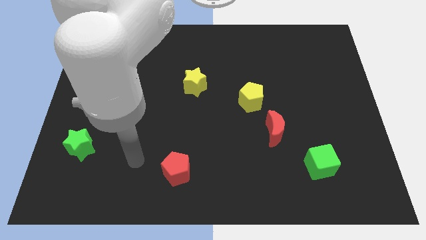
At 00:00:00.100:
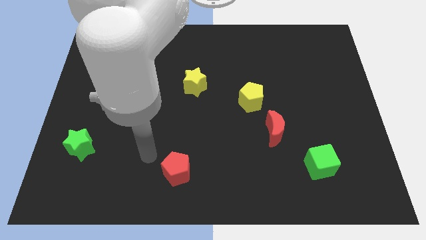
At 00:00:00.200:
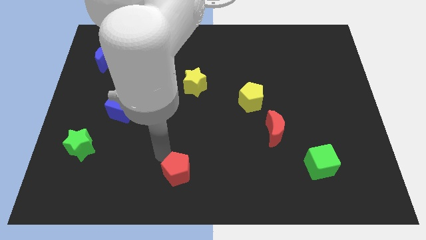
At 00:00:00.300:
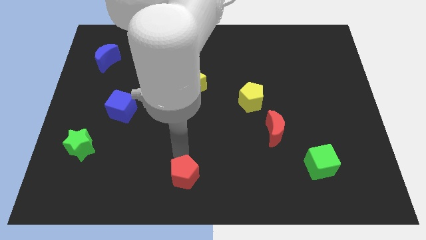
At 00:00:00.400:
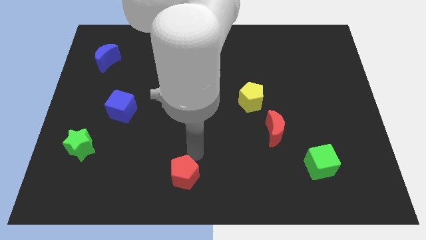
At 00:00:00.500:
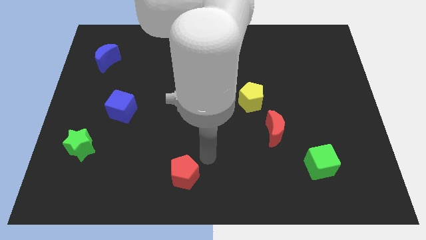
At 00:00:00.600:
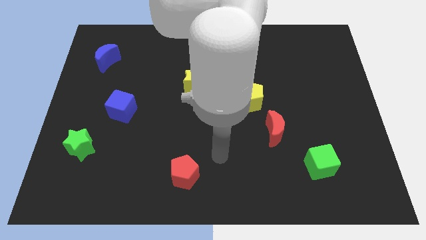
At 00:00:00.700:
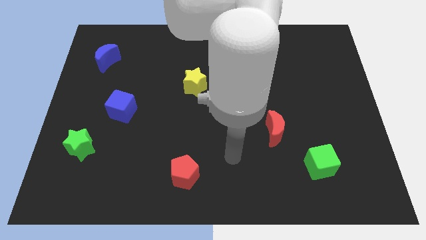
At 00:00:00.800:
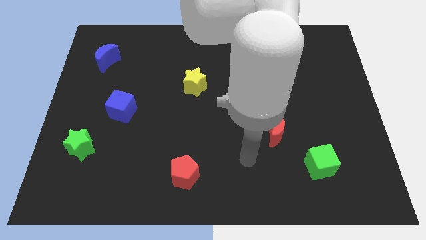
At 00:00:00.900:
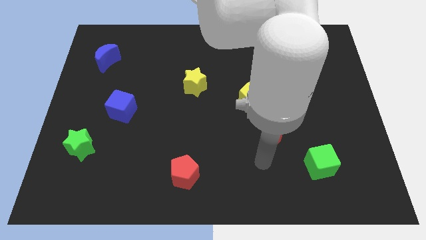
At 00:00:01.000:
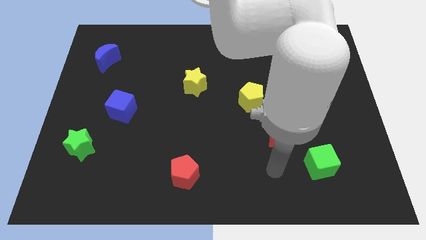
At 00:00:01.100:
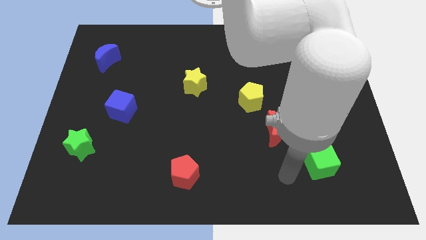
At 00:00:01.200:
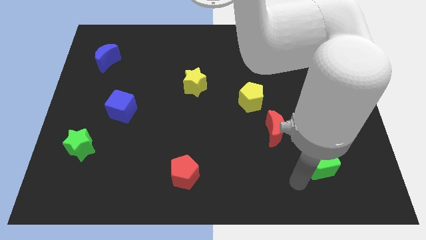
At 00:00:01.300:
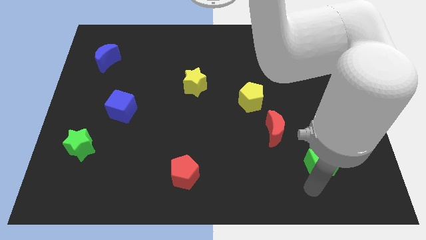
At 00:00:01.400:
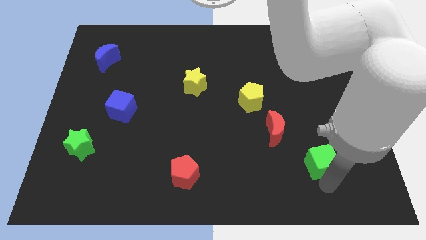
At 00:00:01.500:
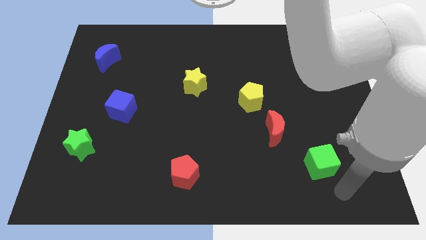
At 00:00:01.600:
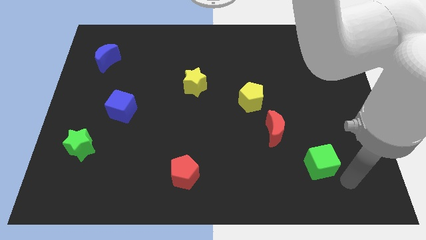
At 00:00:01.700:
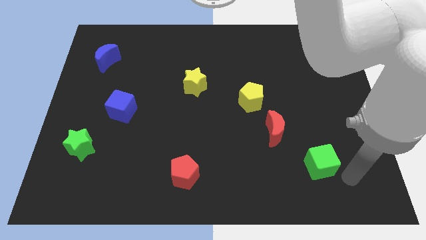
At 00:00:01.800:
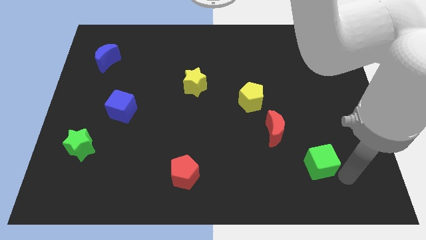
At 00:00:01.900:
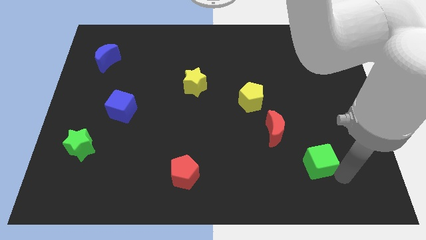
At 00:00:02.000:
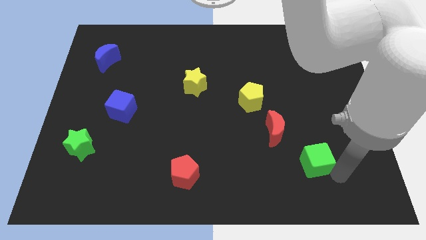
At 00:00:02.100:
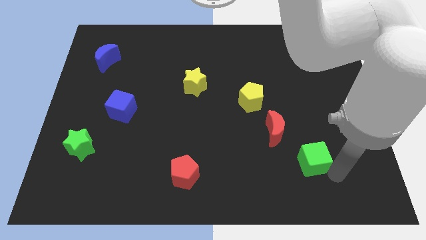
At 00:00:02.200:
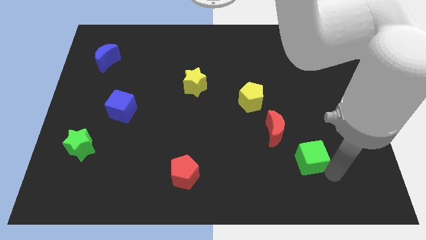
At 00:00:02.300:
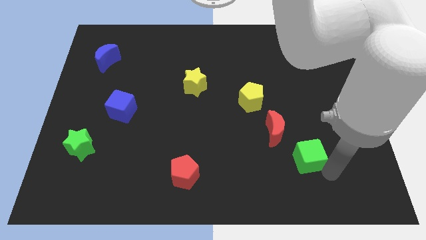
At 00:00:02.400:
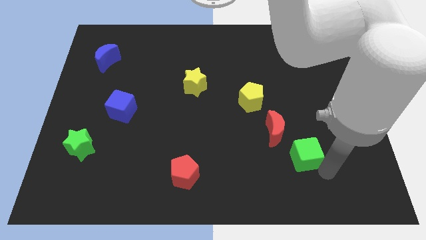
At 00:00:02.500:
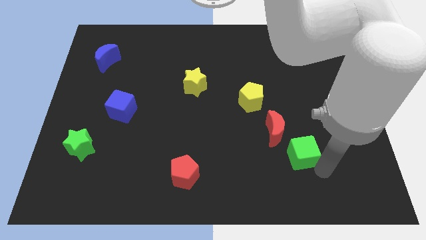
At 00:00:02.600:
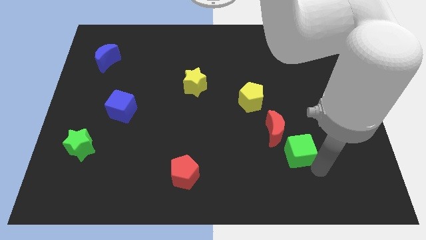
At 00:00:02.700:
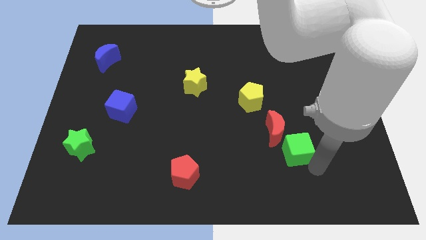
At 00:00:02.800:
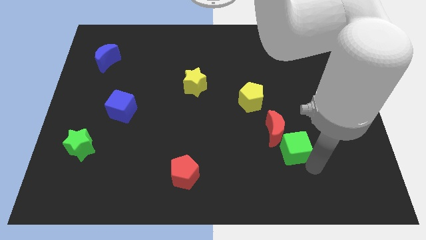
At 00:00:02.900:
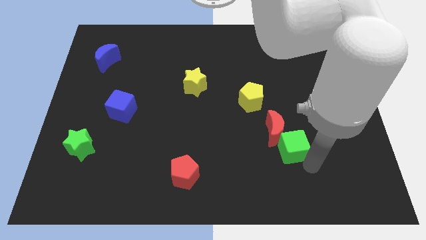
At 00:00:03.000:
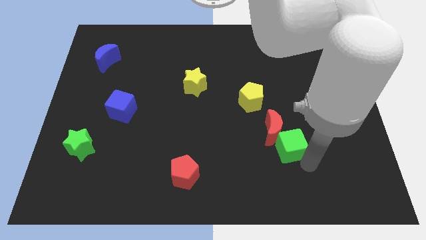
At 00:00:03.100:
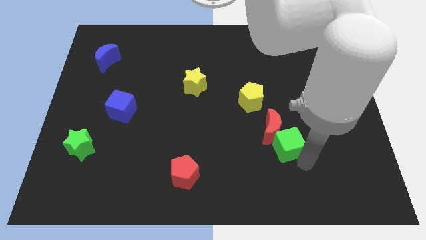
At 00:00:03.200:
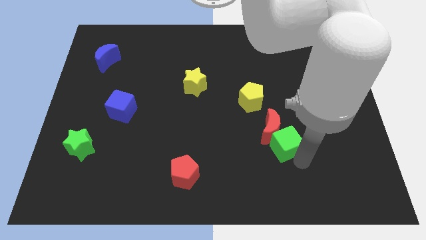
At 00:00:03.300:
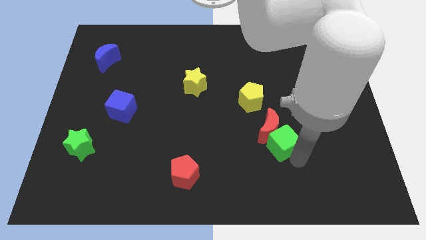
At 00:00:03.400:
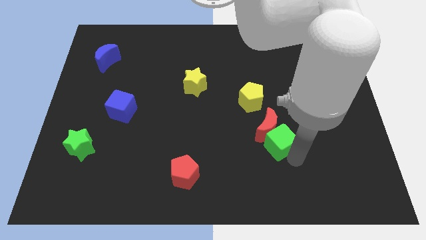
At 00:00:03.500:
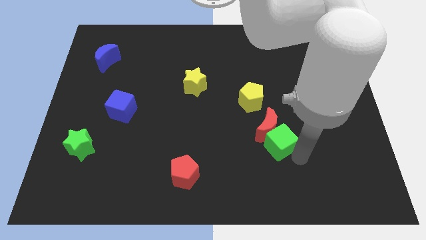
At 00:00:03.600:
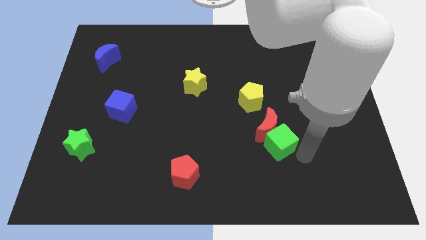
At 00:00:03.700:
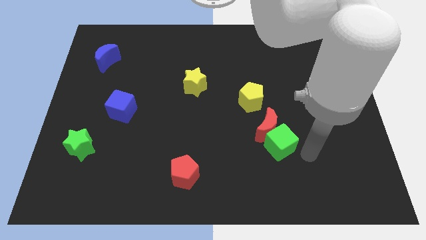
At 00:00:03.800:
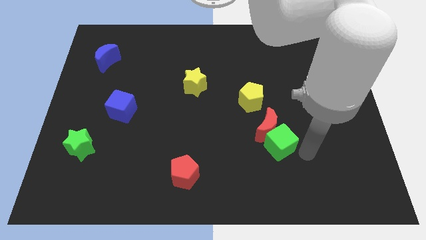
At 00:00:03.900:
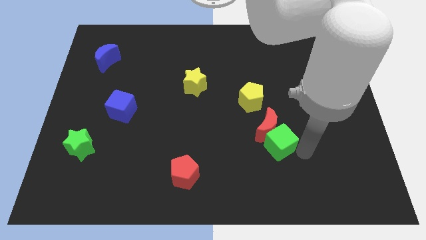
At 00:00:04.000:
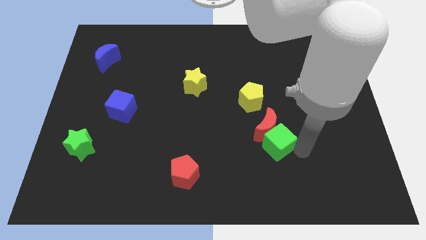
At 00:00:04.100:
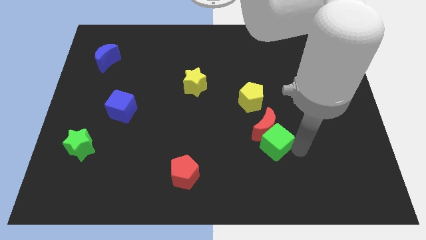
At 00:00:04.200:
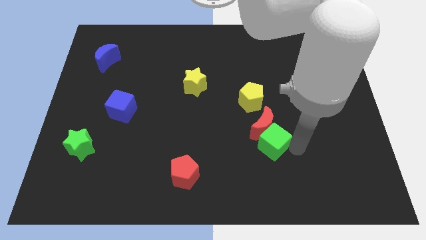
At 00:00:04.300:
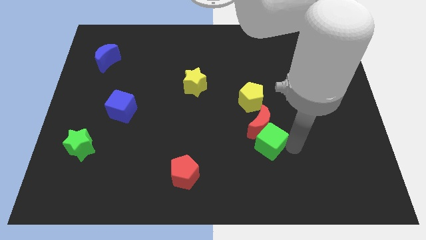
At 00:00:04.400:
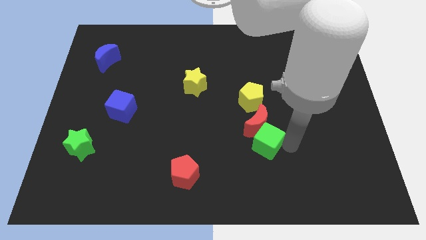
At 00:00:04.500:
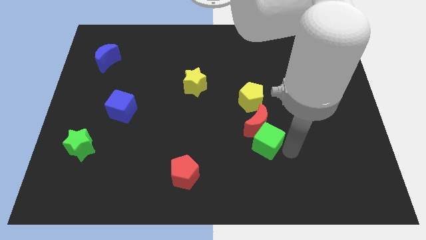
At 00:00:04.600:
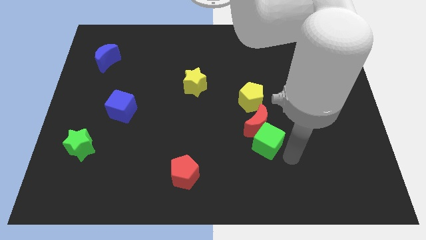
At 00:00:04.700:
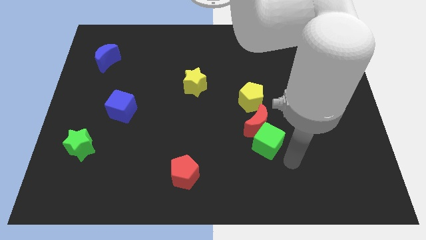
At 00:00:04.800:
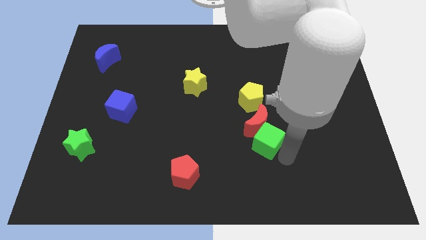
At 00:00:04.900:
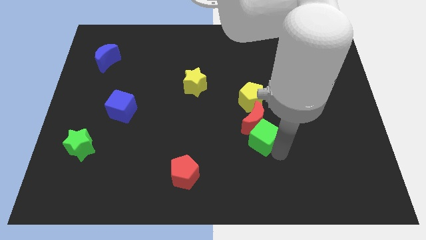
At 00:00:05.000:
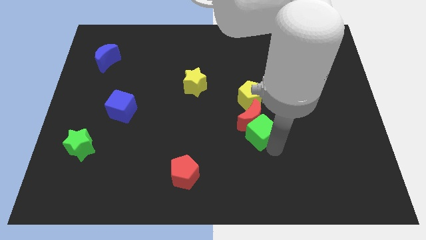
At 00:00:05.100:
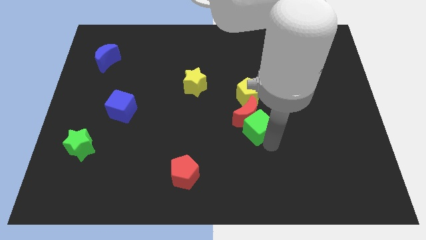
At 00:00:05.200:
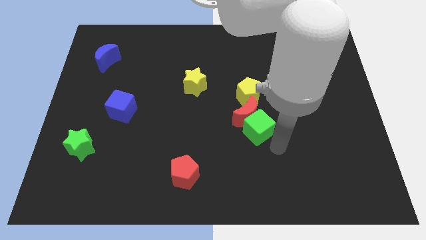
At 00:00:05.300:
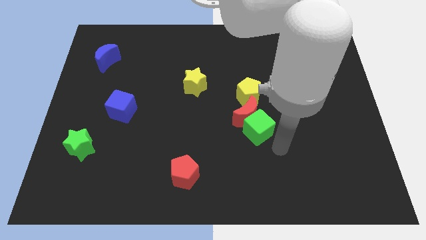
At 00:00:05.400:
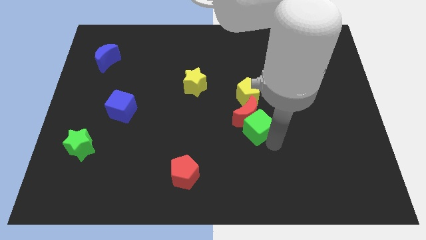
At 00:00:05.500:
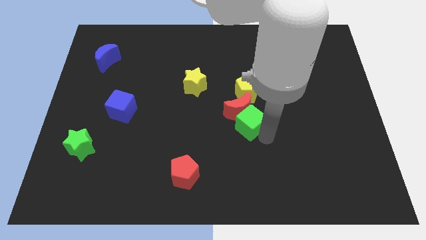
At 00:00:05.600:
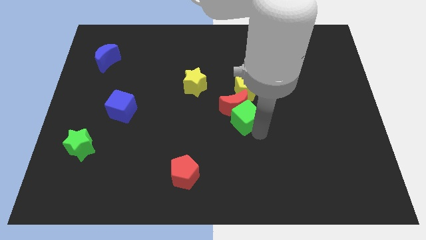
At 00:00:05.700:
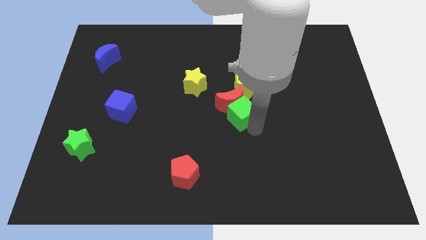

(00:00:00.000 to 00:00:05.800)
move the green cube upwards and left diagonally

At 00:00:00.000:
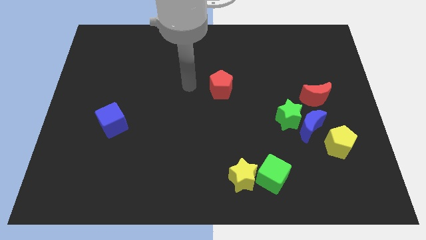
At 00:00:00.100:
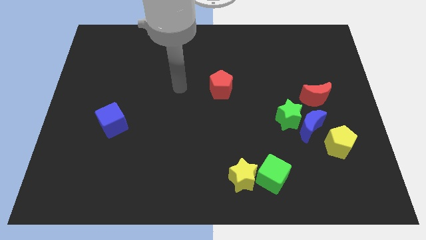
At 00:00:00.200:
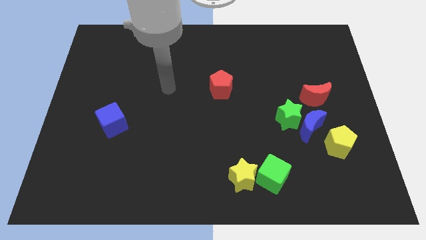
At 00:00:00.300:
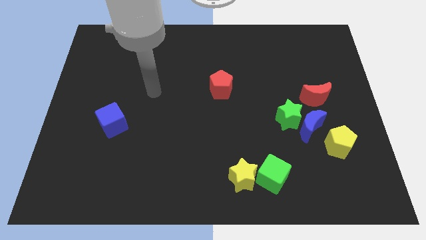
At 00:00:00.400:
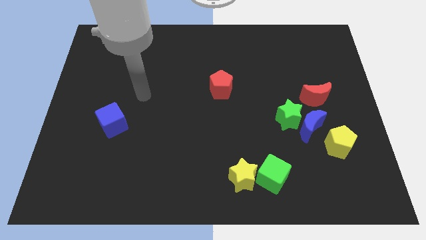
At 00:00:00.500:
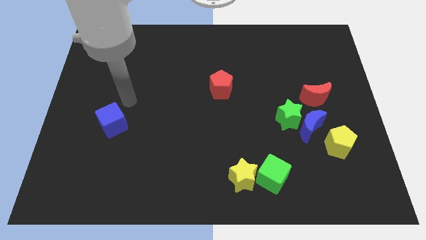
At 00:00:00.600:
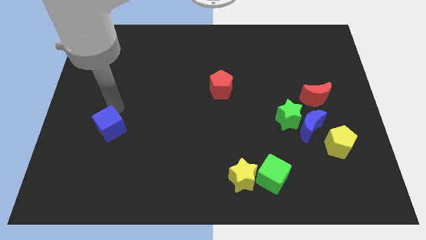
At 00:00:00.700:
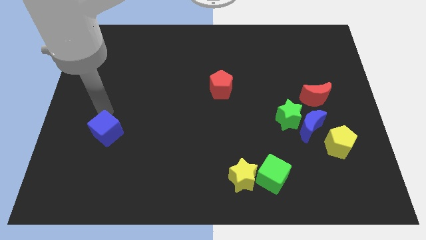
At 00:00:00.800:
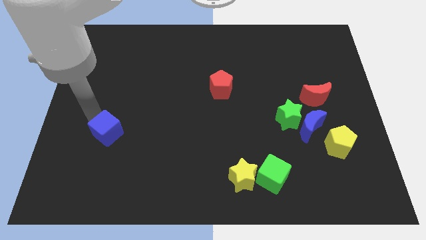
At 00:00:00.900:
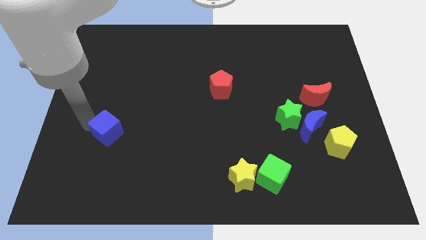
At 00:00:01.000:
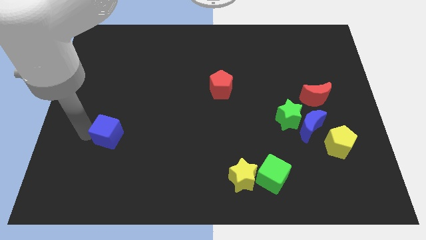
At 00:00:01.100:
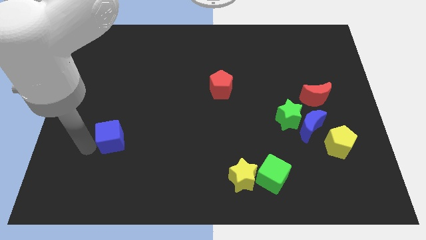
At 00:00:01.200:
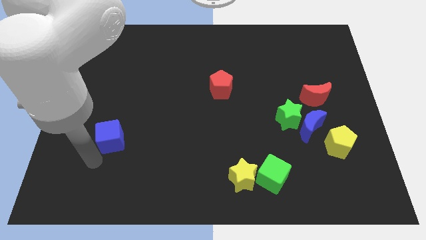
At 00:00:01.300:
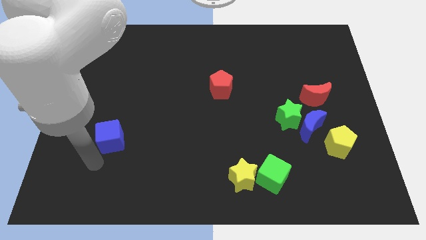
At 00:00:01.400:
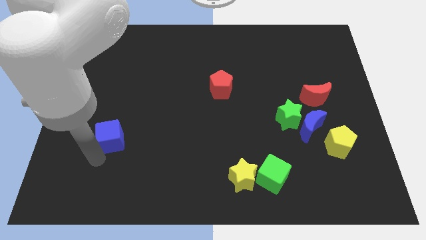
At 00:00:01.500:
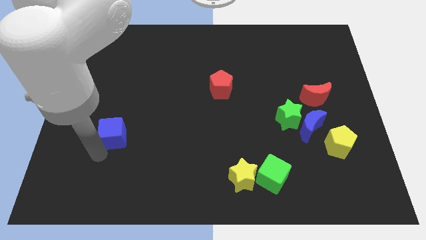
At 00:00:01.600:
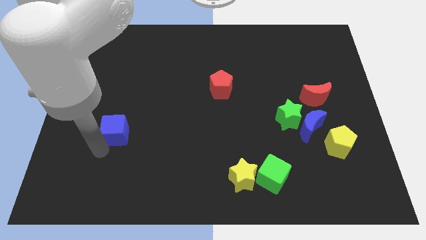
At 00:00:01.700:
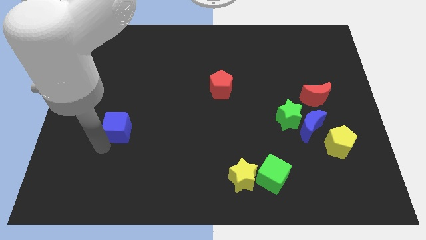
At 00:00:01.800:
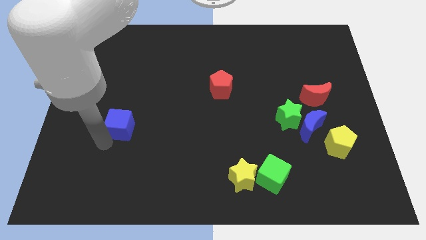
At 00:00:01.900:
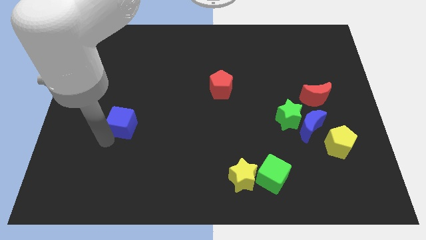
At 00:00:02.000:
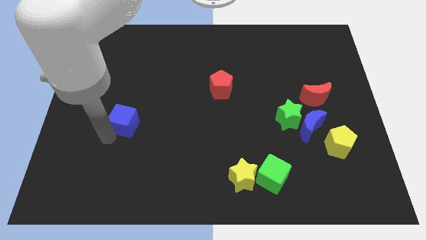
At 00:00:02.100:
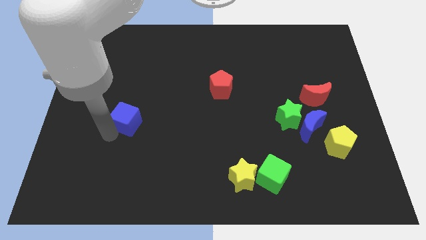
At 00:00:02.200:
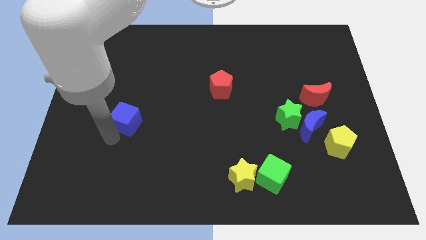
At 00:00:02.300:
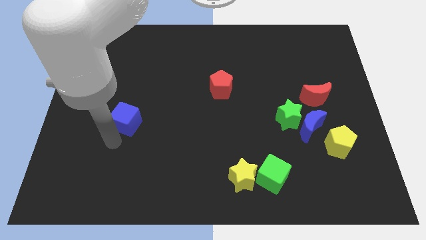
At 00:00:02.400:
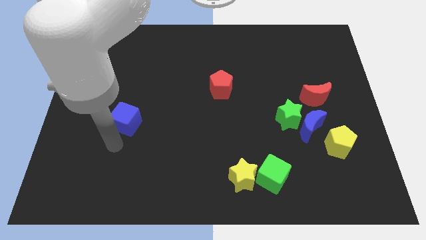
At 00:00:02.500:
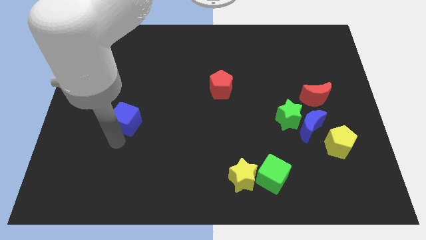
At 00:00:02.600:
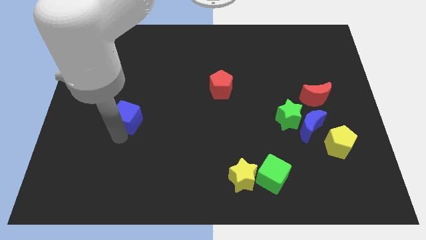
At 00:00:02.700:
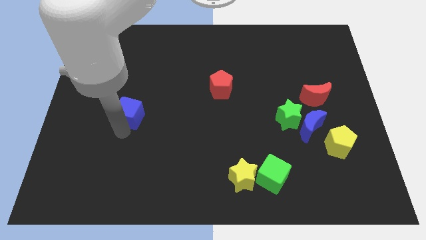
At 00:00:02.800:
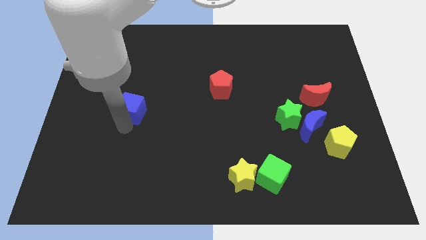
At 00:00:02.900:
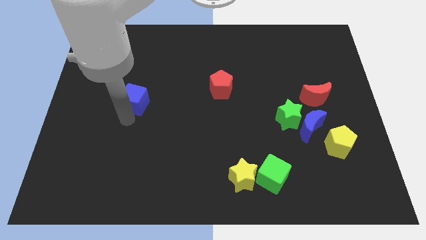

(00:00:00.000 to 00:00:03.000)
move the blue cube diagonally upwards and right slightly
